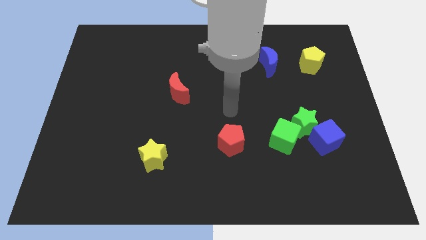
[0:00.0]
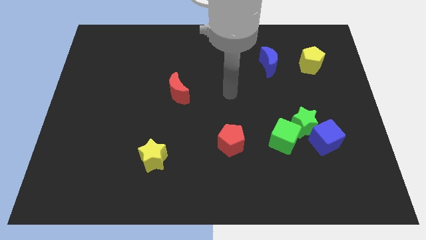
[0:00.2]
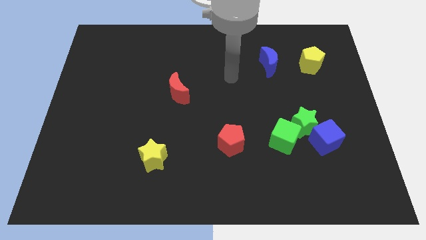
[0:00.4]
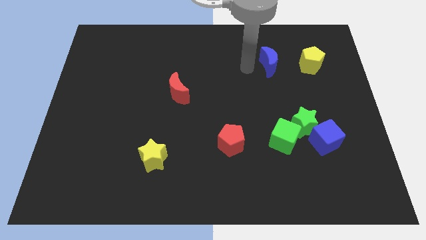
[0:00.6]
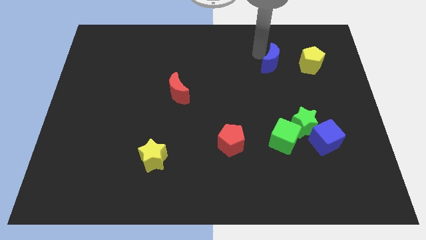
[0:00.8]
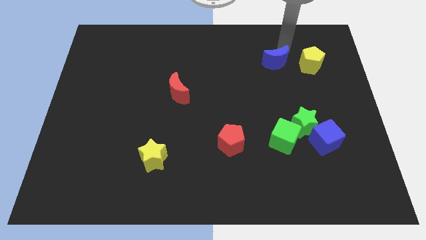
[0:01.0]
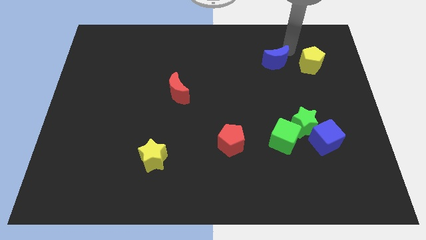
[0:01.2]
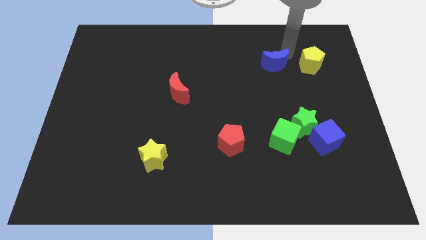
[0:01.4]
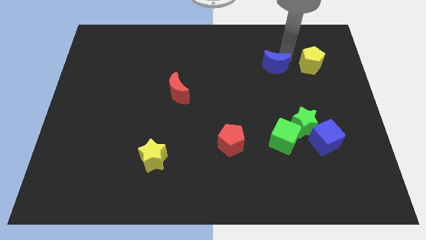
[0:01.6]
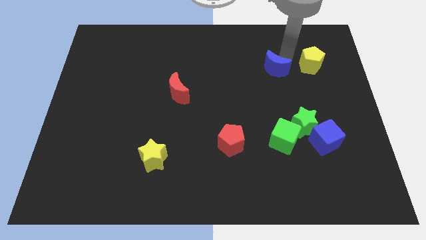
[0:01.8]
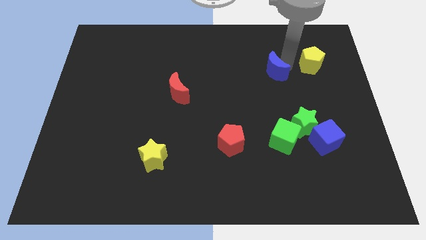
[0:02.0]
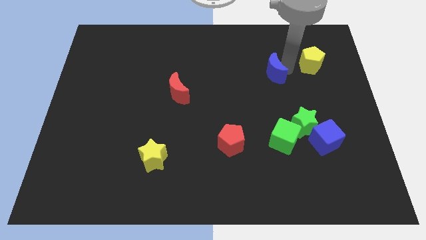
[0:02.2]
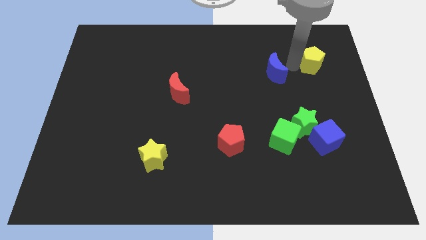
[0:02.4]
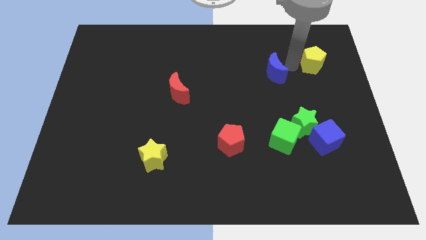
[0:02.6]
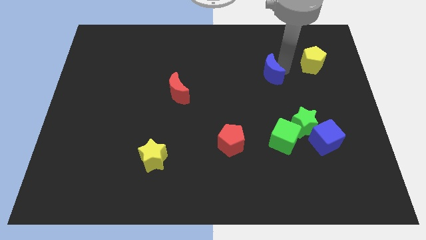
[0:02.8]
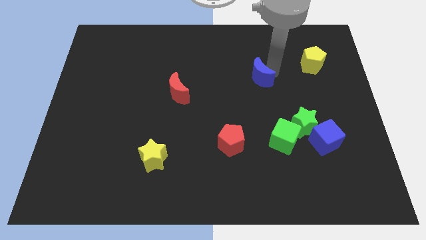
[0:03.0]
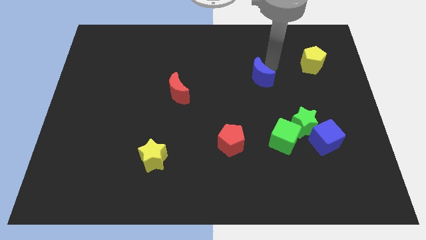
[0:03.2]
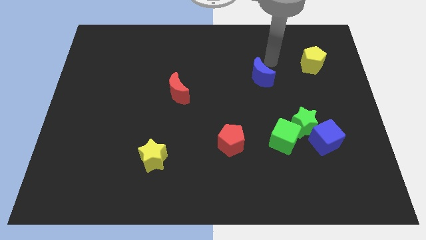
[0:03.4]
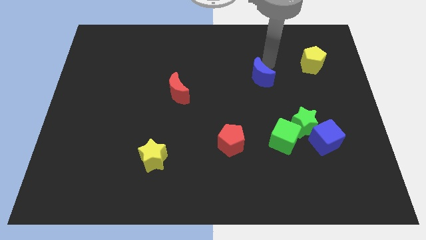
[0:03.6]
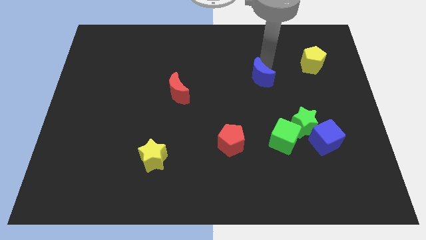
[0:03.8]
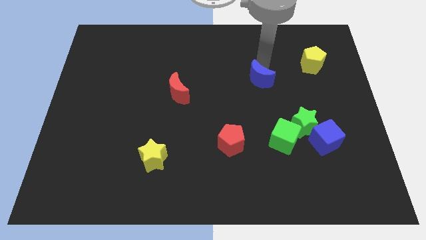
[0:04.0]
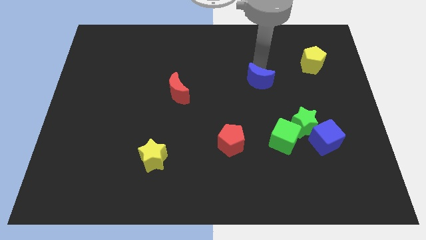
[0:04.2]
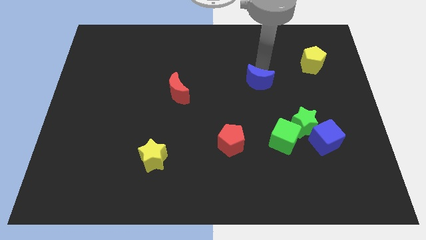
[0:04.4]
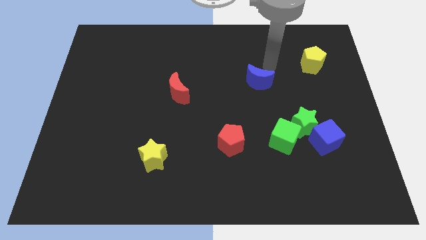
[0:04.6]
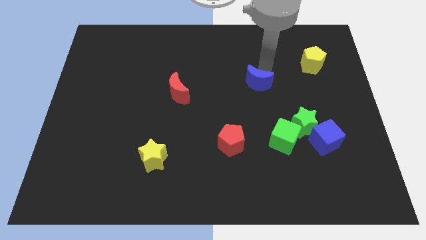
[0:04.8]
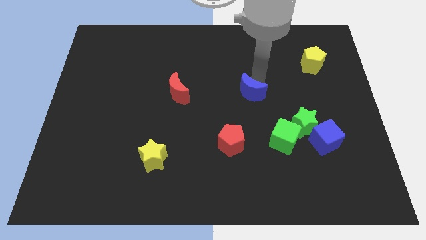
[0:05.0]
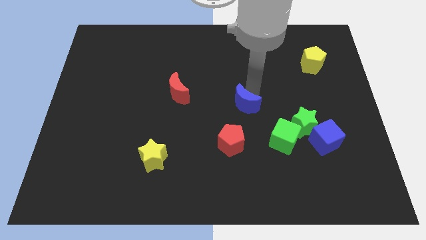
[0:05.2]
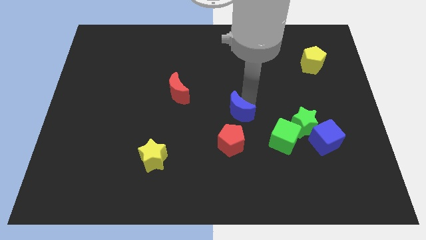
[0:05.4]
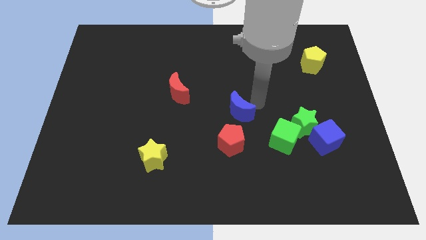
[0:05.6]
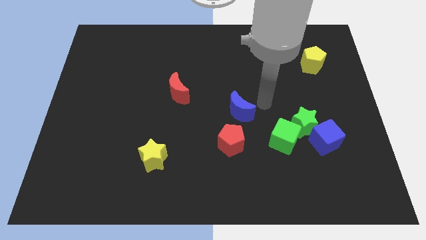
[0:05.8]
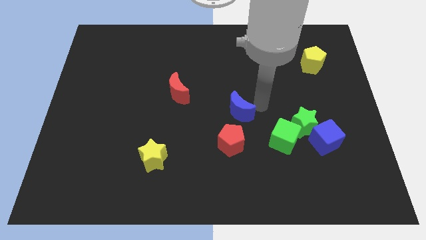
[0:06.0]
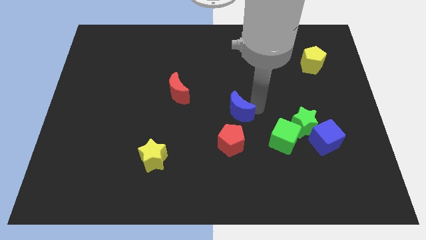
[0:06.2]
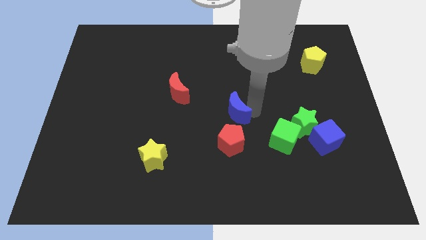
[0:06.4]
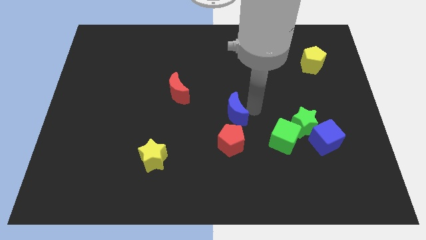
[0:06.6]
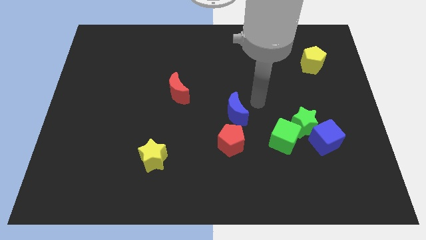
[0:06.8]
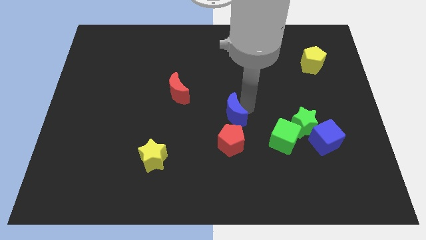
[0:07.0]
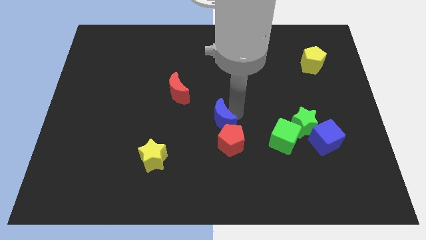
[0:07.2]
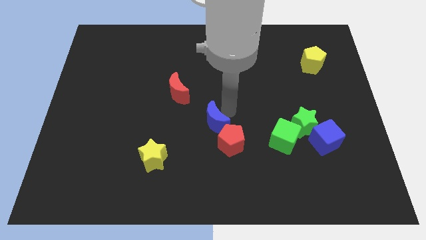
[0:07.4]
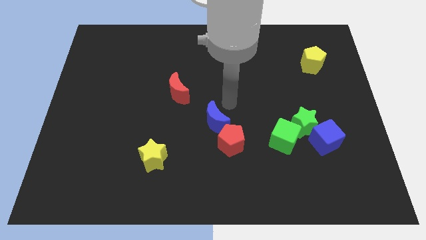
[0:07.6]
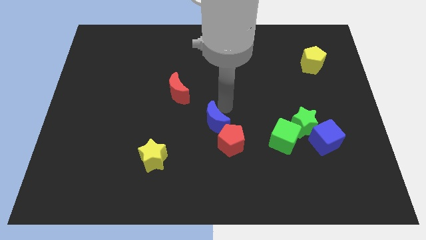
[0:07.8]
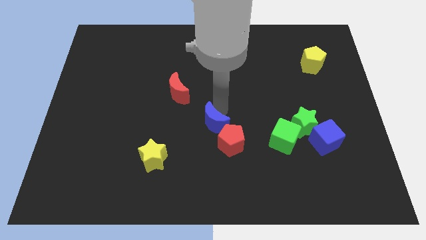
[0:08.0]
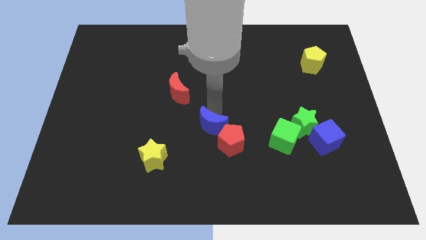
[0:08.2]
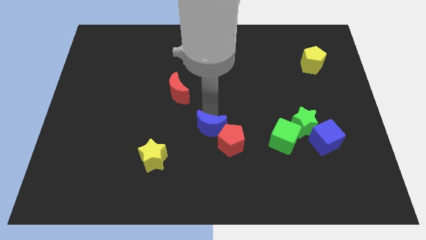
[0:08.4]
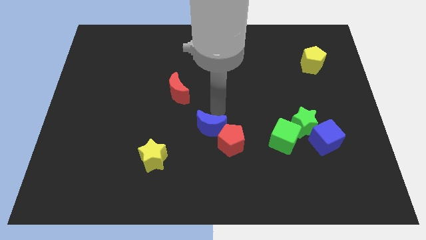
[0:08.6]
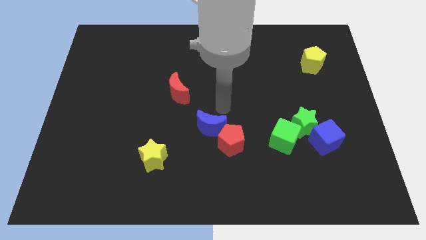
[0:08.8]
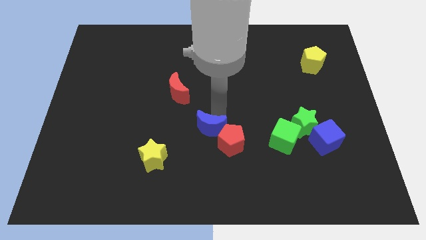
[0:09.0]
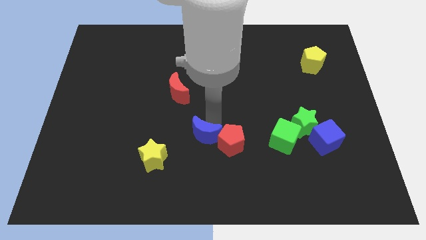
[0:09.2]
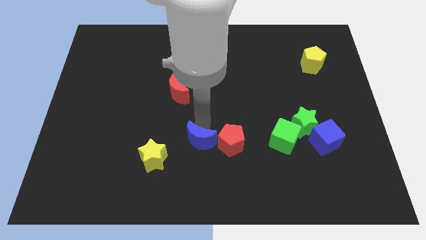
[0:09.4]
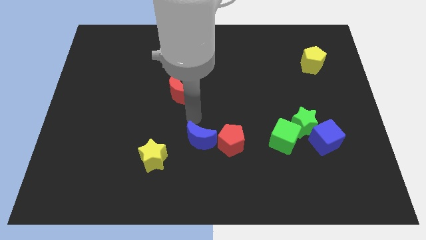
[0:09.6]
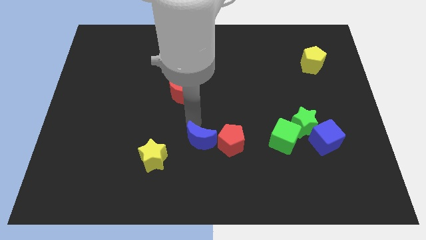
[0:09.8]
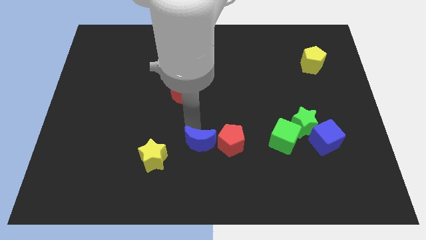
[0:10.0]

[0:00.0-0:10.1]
slide the blue moon to the bottom left of the red pentagon

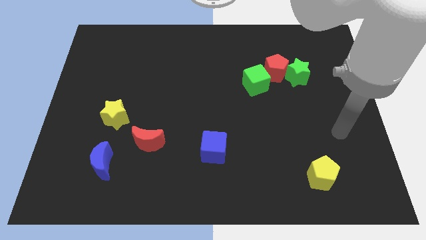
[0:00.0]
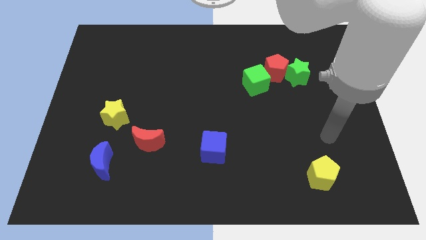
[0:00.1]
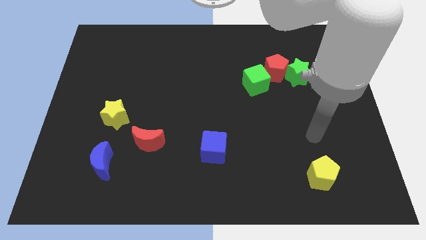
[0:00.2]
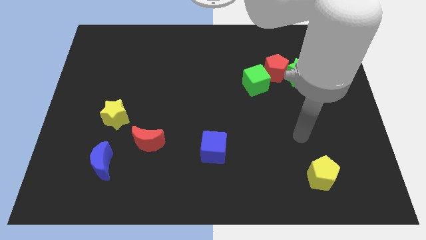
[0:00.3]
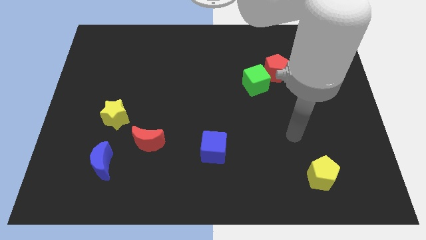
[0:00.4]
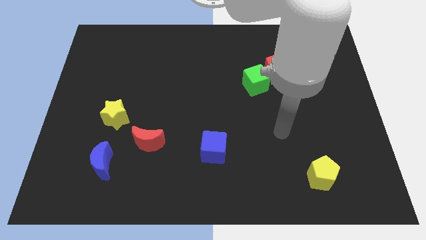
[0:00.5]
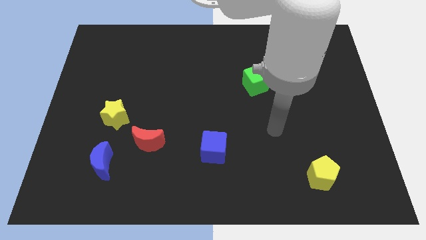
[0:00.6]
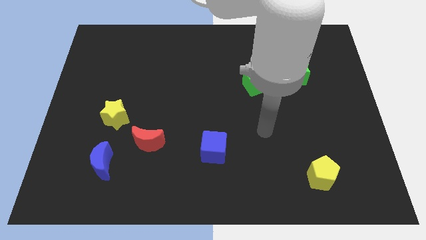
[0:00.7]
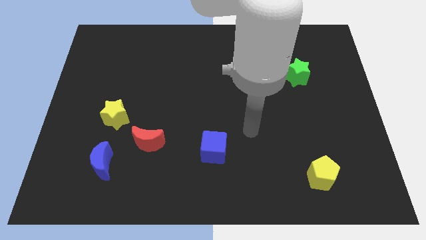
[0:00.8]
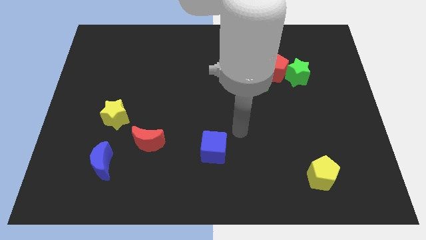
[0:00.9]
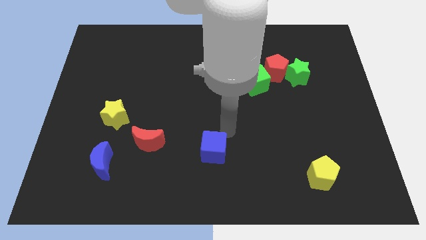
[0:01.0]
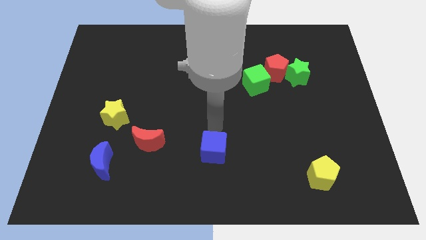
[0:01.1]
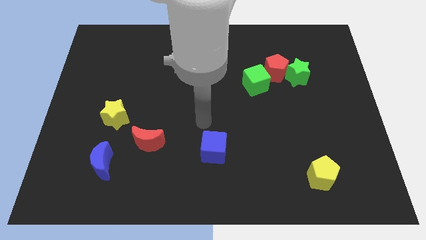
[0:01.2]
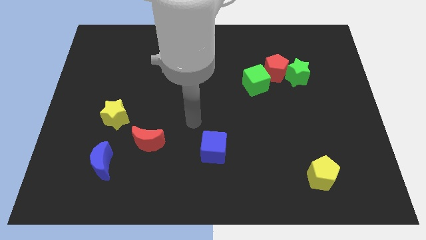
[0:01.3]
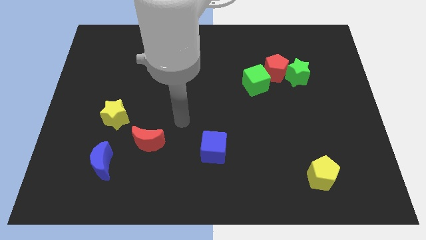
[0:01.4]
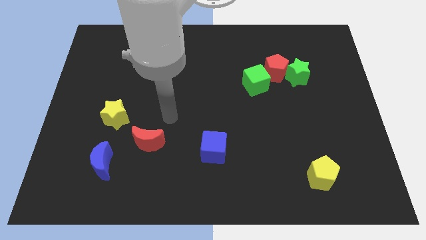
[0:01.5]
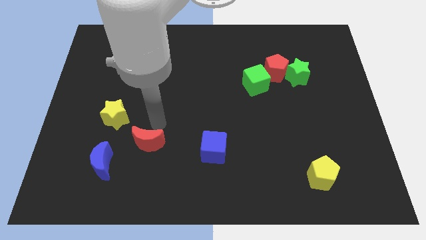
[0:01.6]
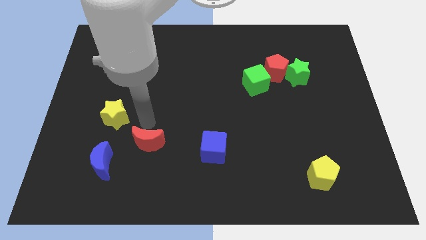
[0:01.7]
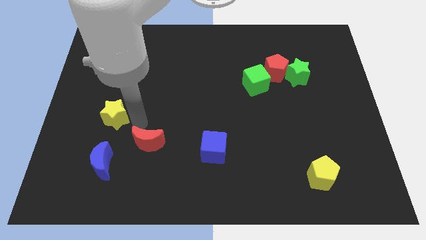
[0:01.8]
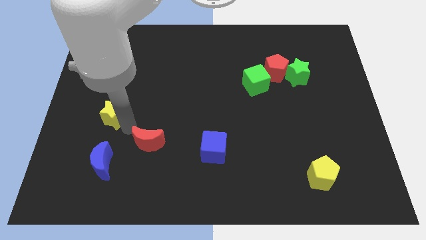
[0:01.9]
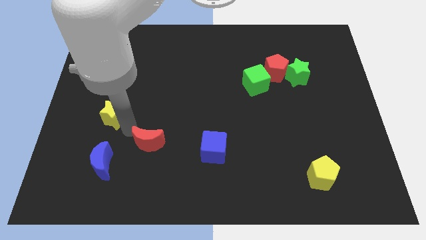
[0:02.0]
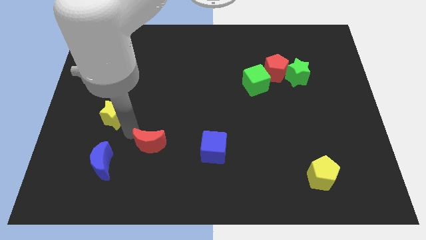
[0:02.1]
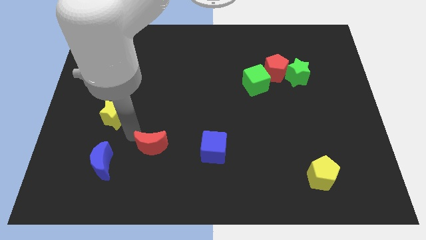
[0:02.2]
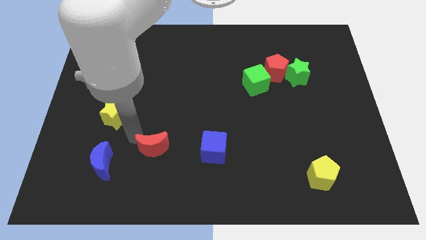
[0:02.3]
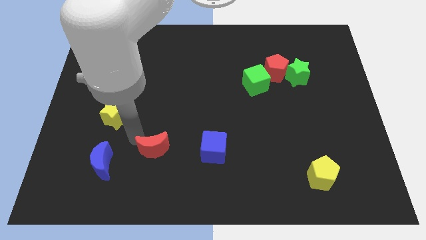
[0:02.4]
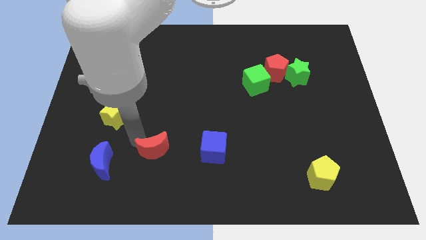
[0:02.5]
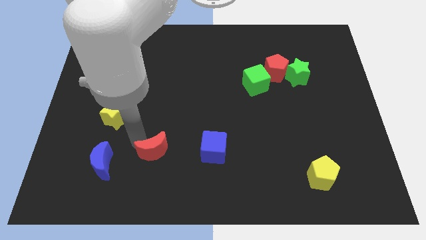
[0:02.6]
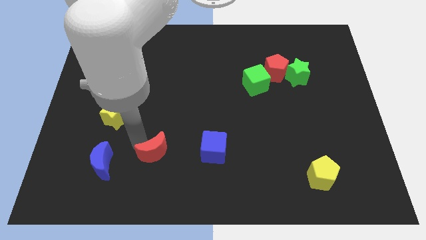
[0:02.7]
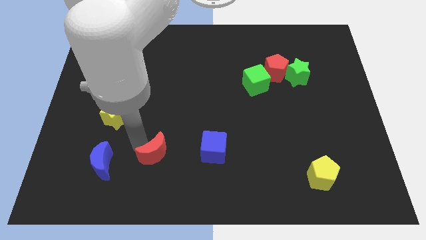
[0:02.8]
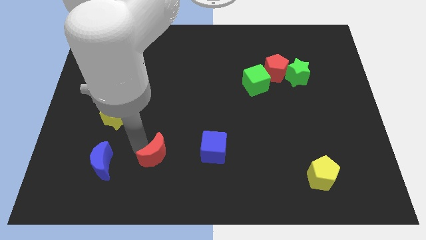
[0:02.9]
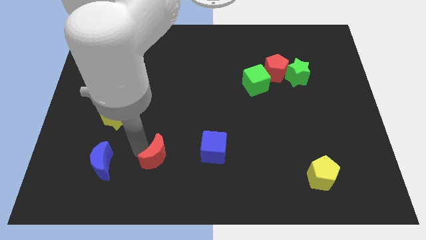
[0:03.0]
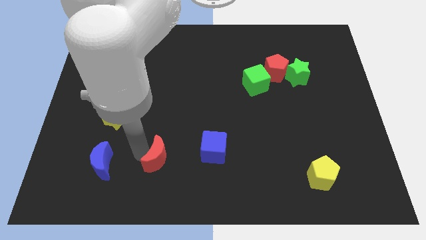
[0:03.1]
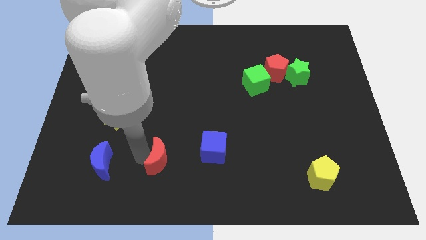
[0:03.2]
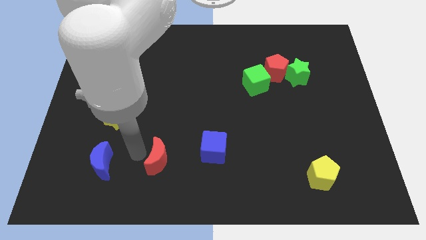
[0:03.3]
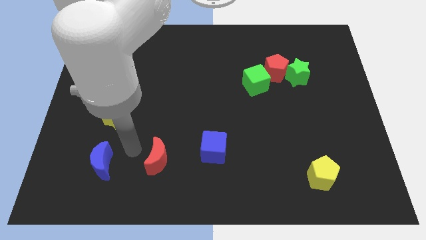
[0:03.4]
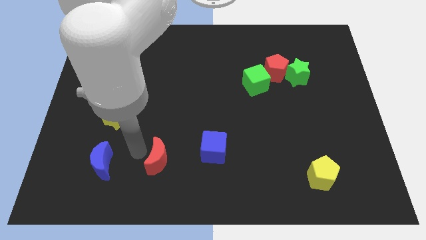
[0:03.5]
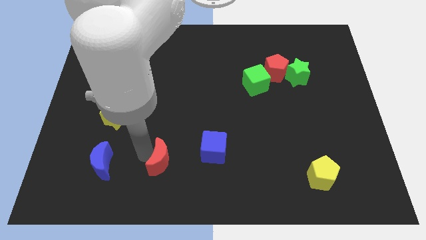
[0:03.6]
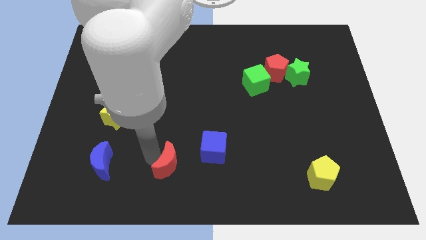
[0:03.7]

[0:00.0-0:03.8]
move the red moon to the bottom left of the blue cube
